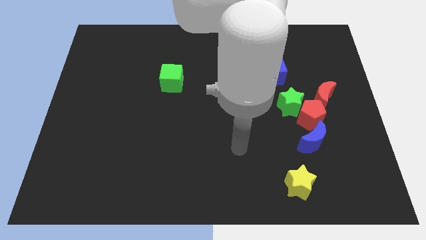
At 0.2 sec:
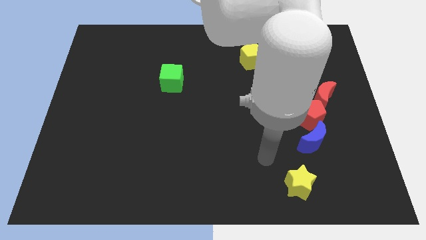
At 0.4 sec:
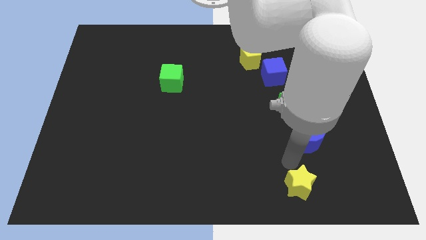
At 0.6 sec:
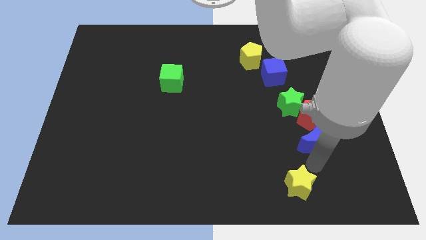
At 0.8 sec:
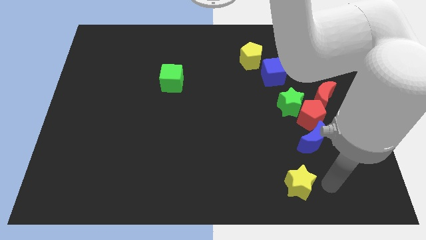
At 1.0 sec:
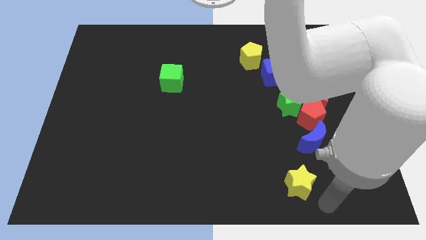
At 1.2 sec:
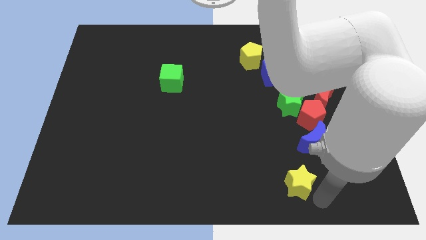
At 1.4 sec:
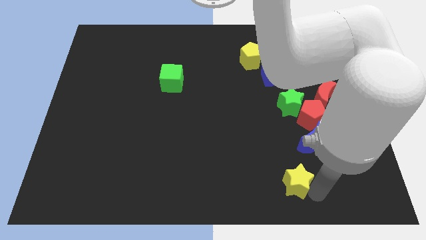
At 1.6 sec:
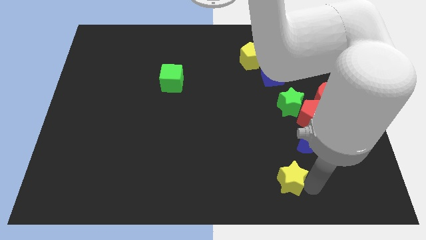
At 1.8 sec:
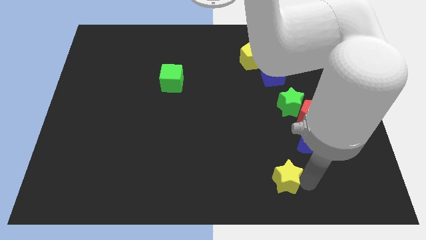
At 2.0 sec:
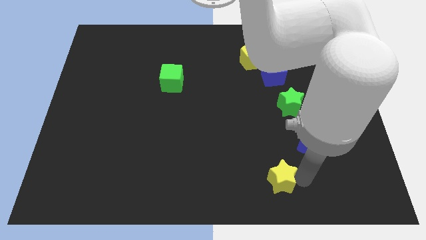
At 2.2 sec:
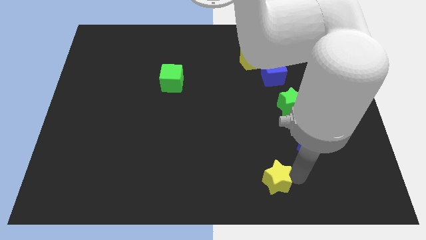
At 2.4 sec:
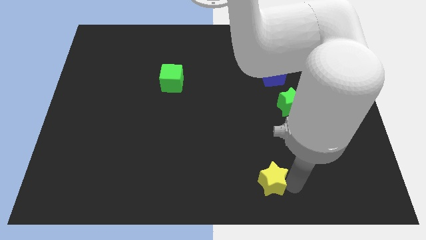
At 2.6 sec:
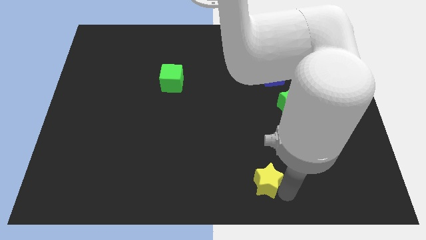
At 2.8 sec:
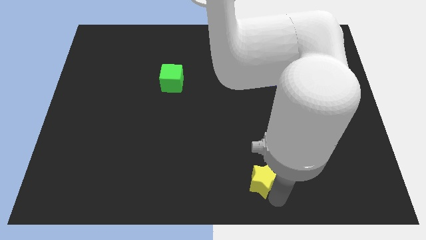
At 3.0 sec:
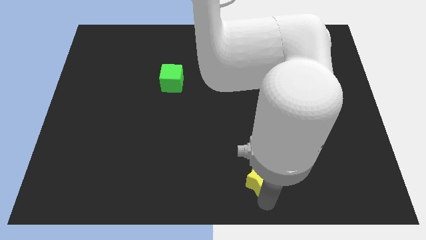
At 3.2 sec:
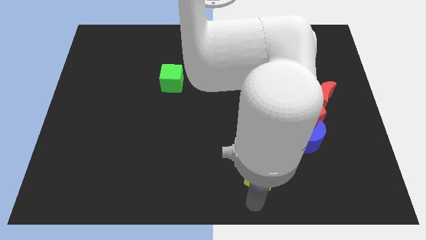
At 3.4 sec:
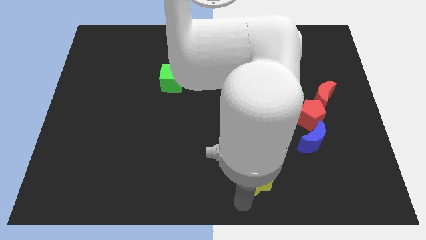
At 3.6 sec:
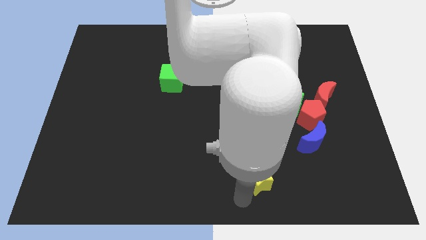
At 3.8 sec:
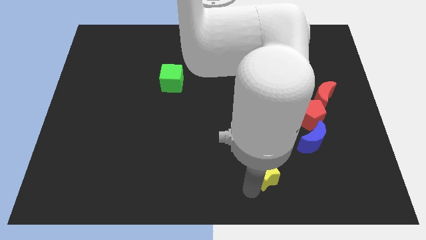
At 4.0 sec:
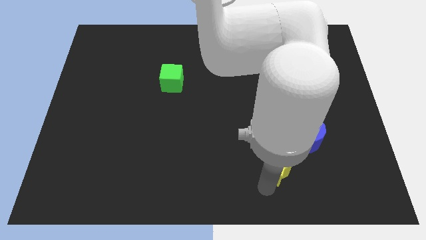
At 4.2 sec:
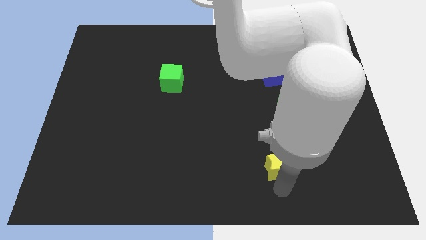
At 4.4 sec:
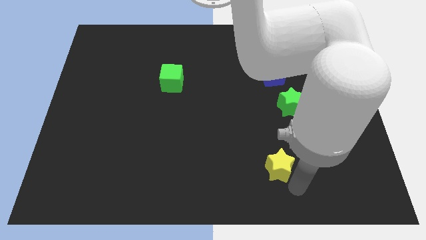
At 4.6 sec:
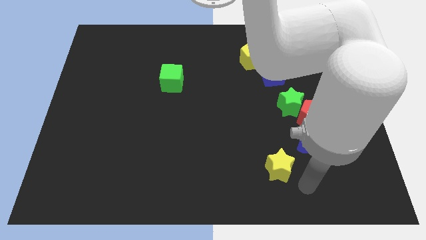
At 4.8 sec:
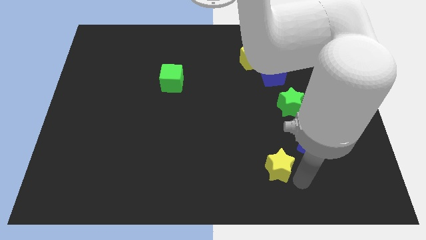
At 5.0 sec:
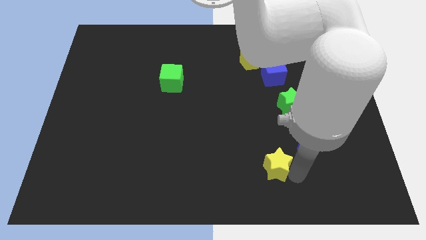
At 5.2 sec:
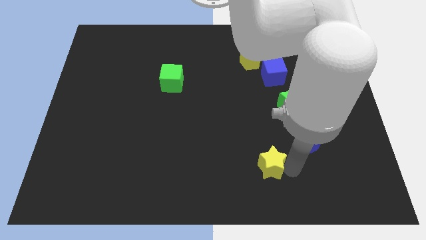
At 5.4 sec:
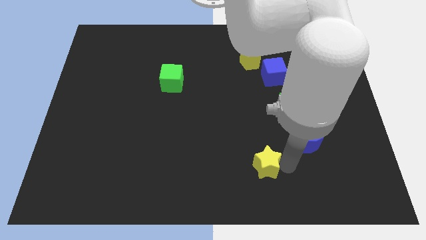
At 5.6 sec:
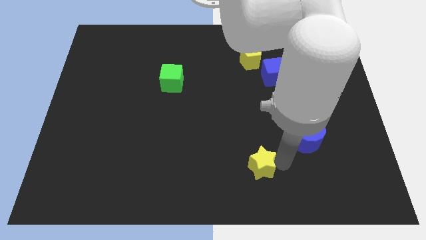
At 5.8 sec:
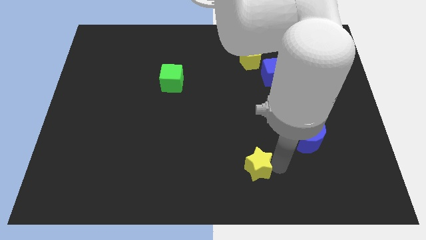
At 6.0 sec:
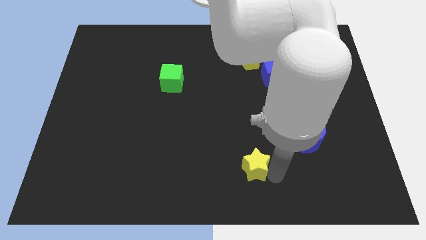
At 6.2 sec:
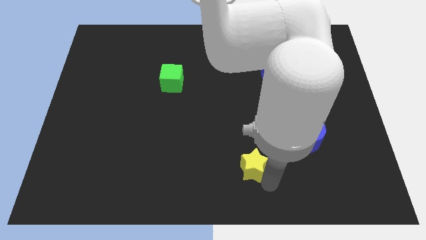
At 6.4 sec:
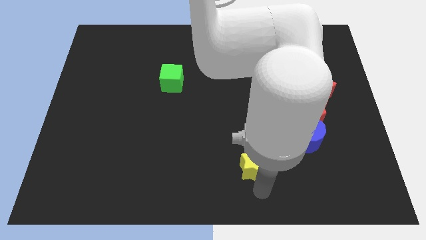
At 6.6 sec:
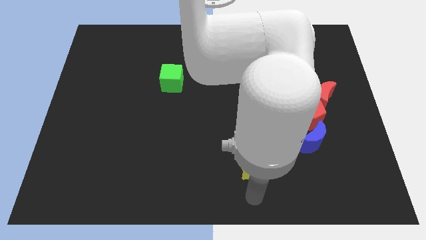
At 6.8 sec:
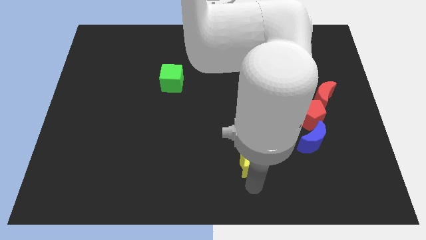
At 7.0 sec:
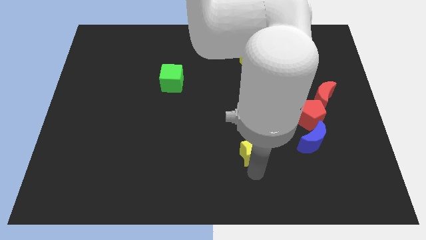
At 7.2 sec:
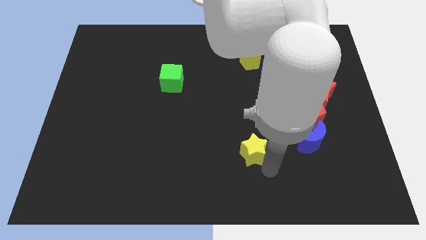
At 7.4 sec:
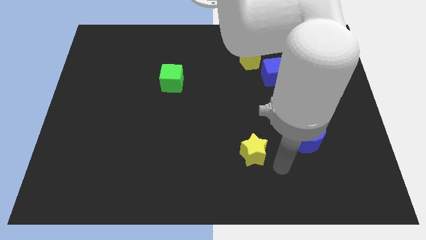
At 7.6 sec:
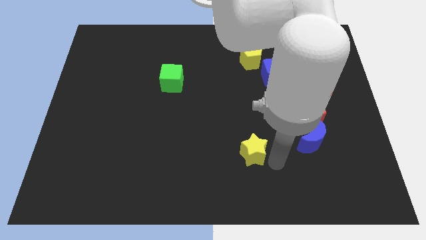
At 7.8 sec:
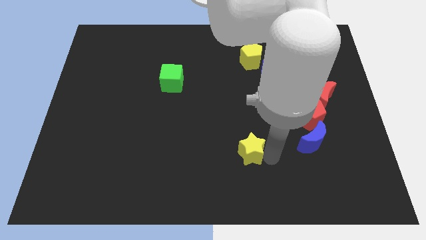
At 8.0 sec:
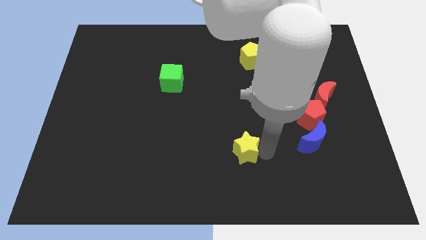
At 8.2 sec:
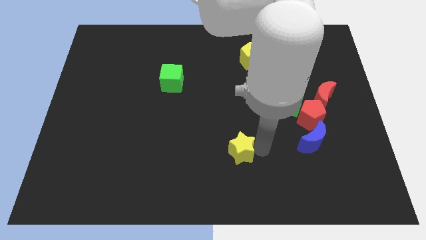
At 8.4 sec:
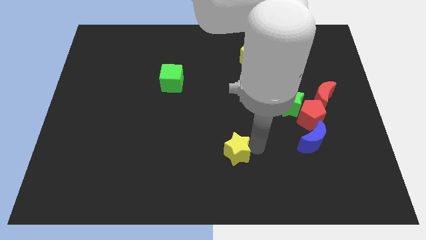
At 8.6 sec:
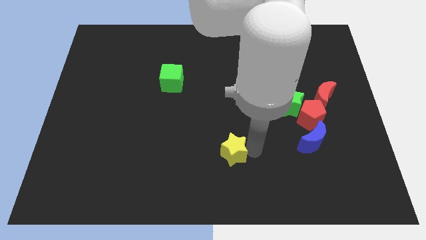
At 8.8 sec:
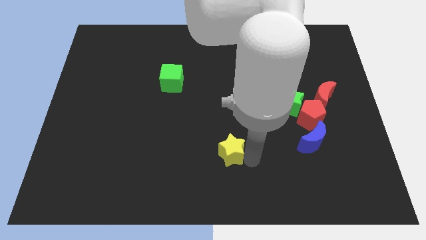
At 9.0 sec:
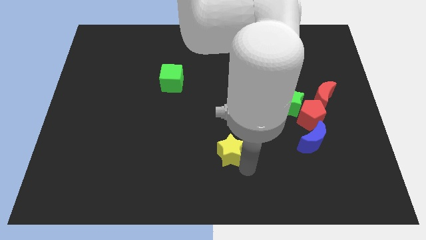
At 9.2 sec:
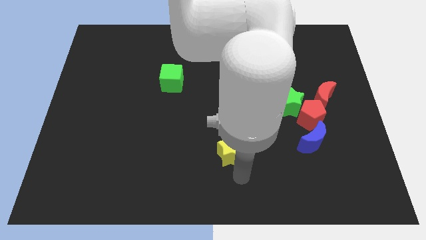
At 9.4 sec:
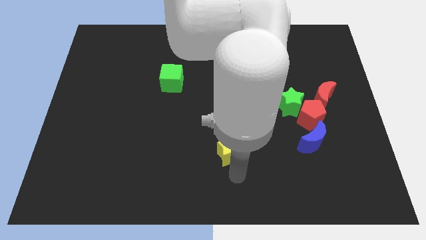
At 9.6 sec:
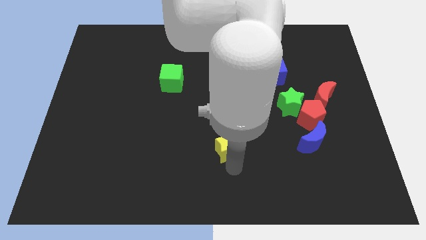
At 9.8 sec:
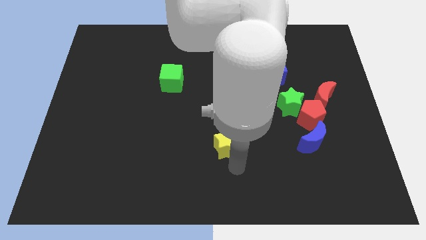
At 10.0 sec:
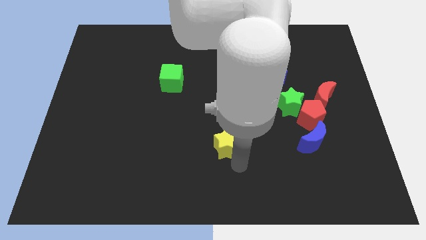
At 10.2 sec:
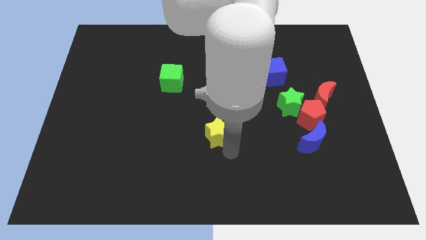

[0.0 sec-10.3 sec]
push the yellow star upwards and then left

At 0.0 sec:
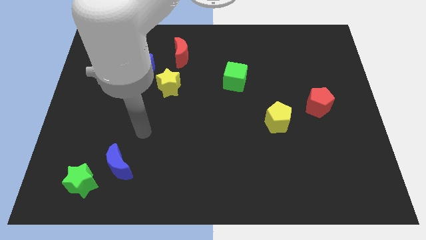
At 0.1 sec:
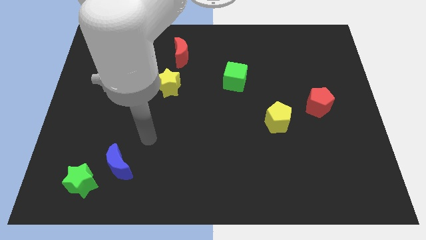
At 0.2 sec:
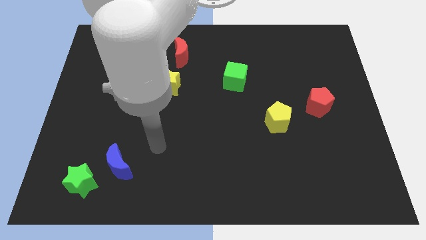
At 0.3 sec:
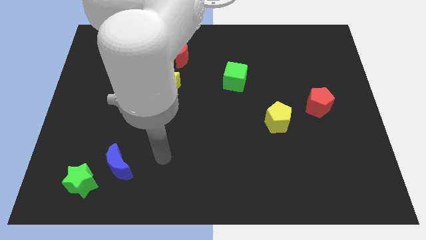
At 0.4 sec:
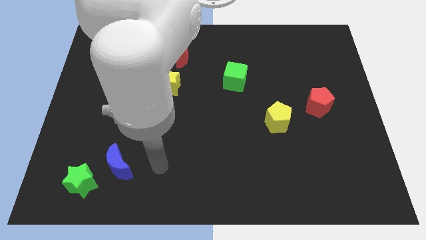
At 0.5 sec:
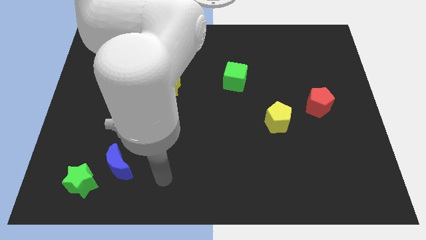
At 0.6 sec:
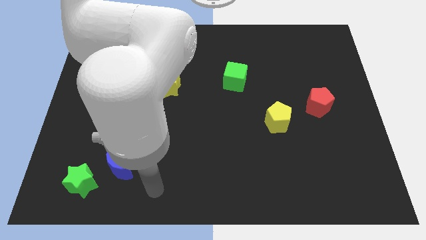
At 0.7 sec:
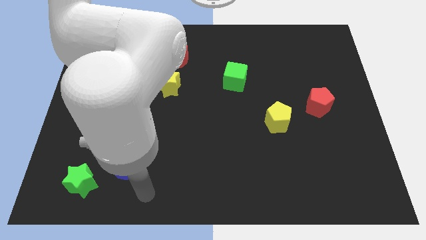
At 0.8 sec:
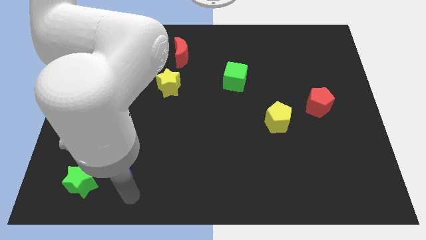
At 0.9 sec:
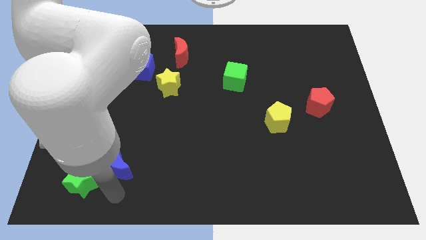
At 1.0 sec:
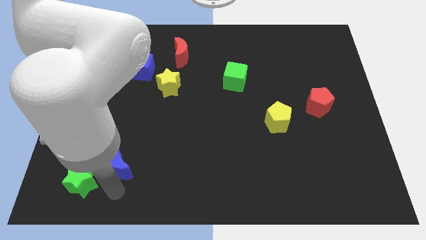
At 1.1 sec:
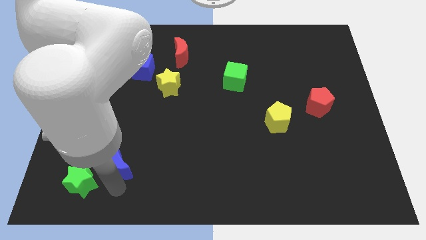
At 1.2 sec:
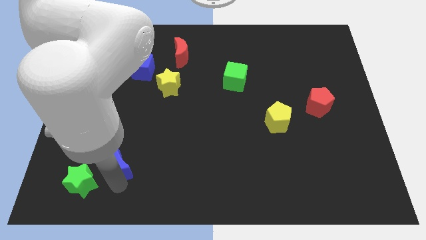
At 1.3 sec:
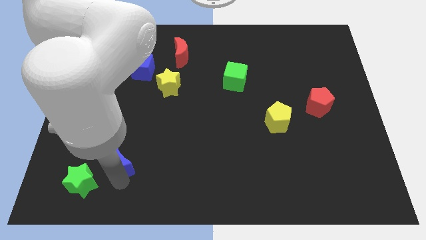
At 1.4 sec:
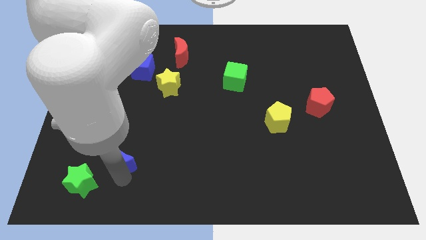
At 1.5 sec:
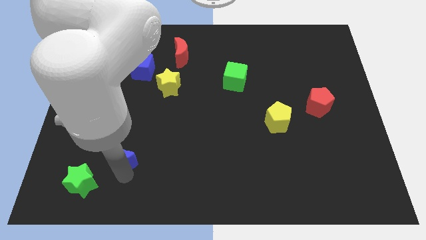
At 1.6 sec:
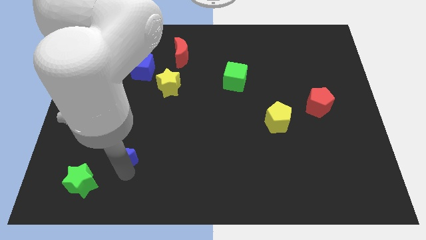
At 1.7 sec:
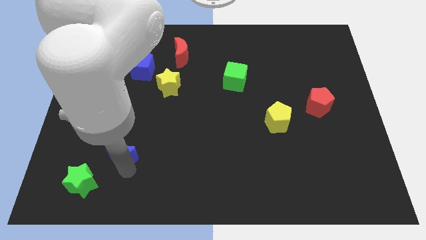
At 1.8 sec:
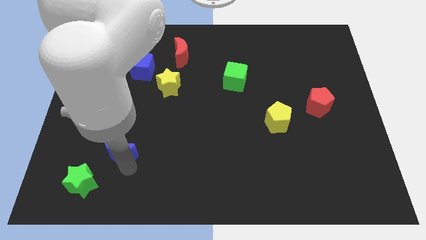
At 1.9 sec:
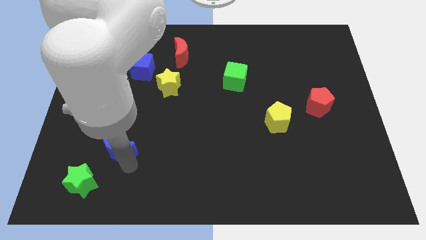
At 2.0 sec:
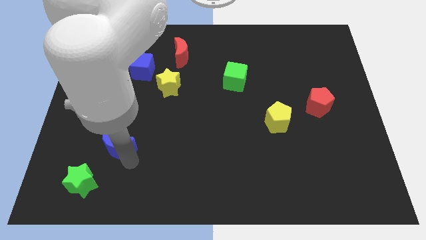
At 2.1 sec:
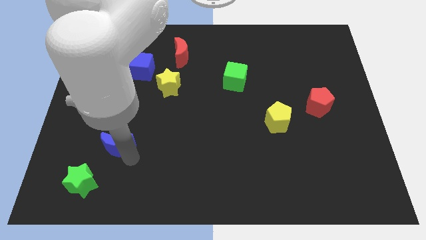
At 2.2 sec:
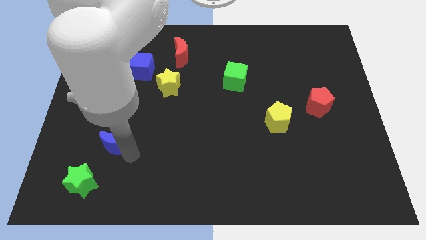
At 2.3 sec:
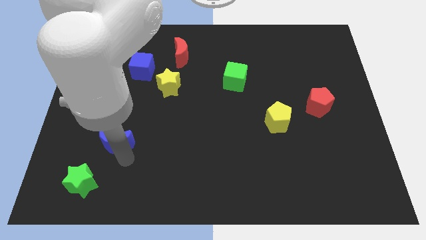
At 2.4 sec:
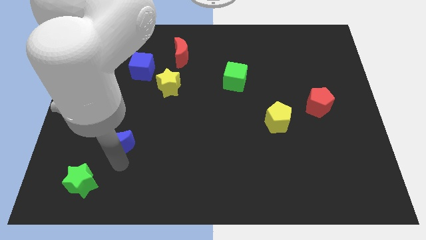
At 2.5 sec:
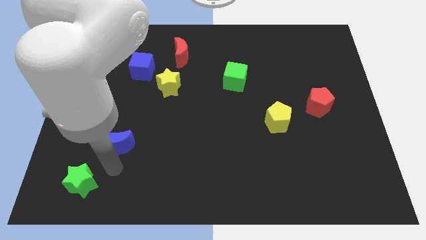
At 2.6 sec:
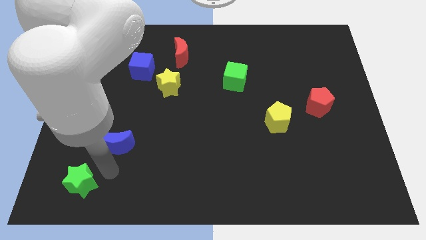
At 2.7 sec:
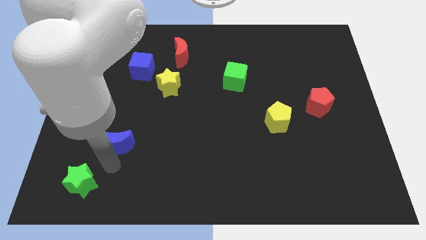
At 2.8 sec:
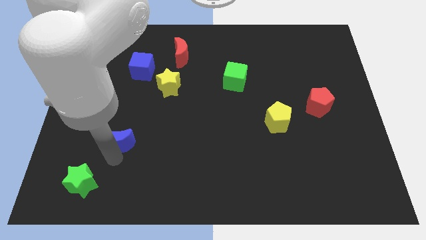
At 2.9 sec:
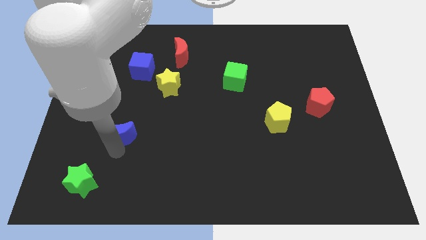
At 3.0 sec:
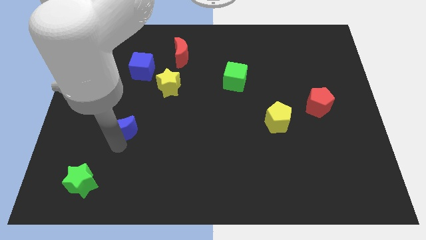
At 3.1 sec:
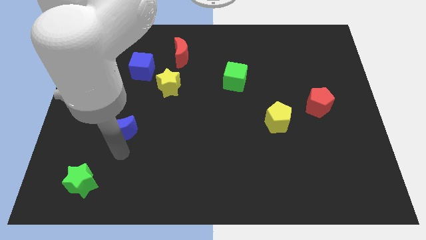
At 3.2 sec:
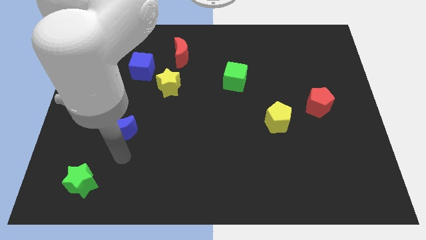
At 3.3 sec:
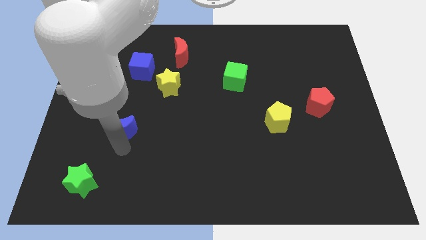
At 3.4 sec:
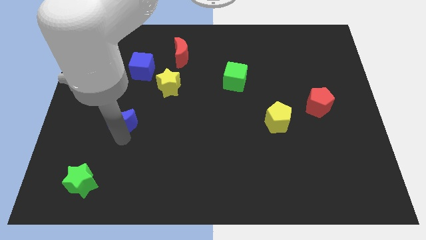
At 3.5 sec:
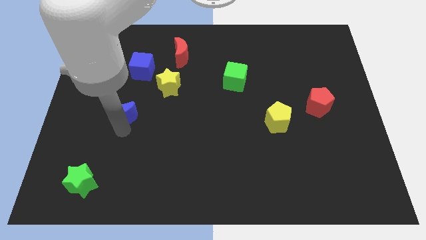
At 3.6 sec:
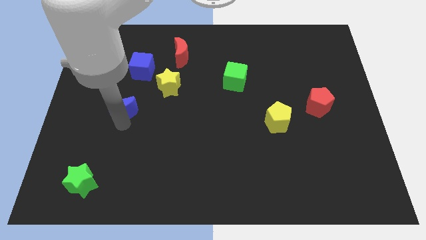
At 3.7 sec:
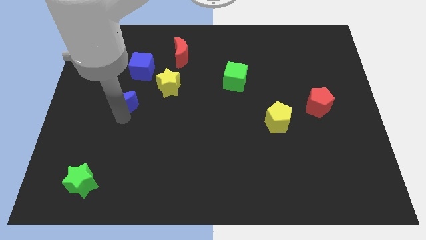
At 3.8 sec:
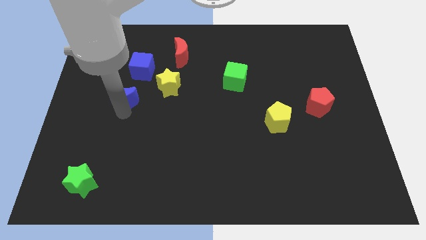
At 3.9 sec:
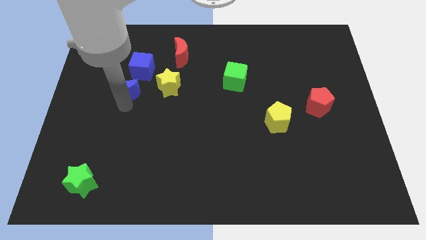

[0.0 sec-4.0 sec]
move the blue moon up
